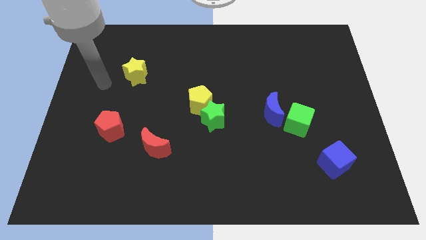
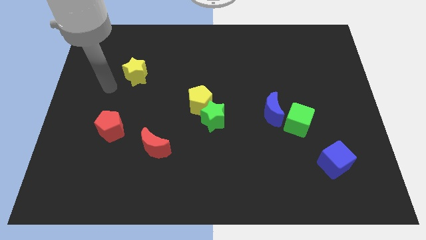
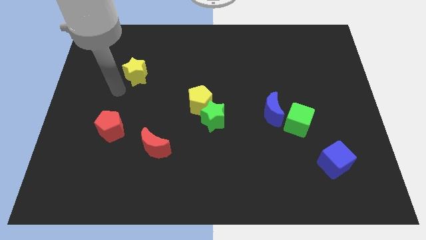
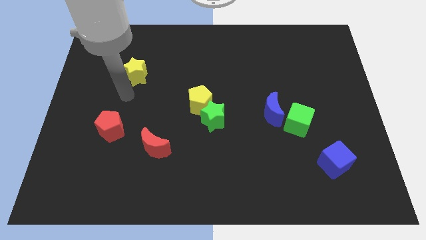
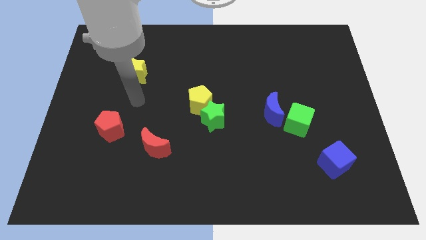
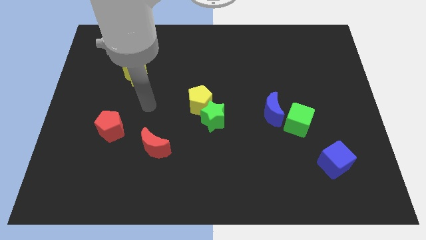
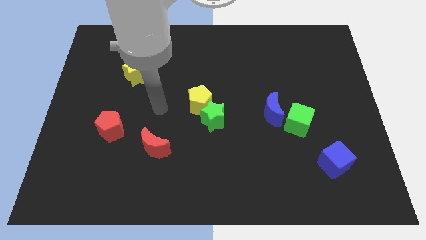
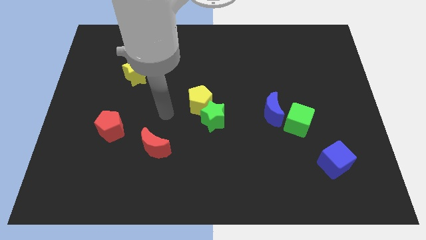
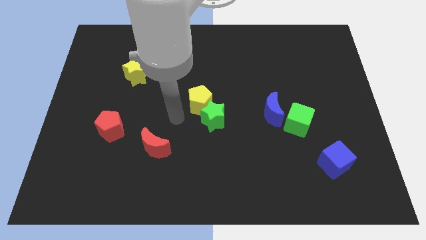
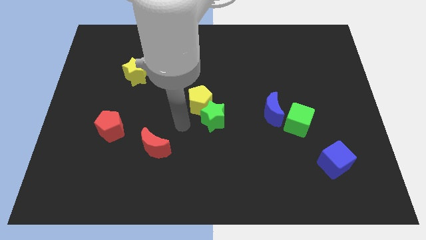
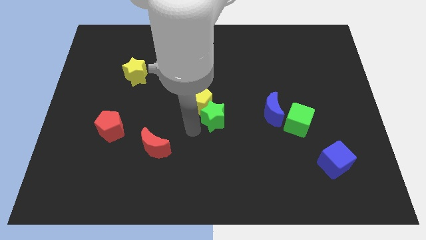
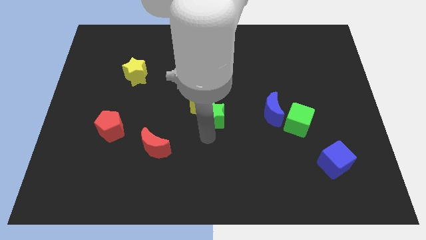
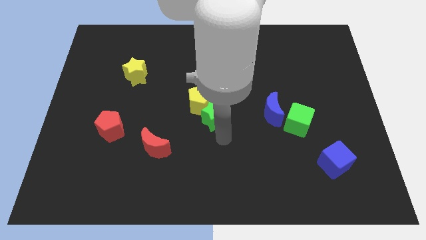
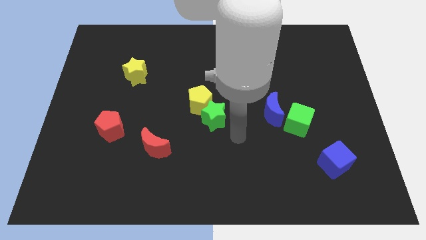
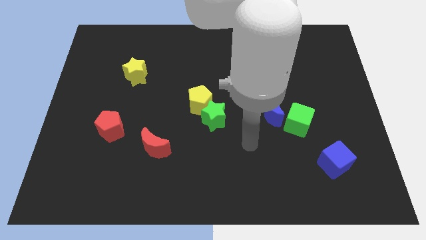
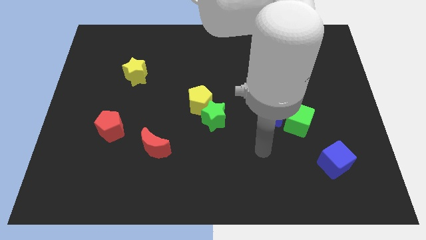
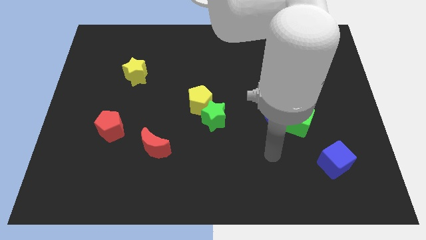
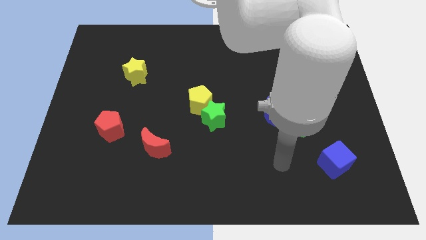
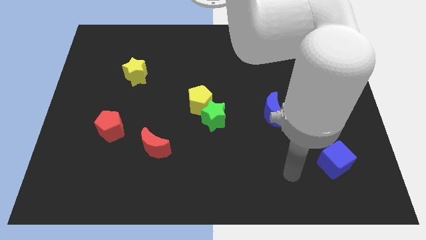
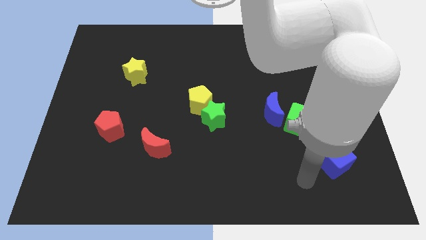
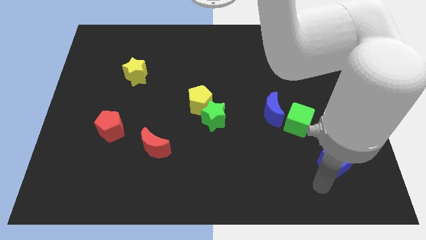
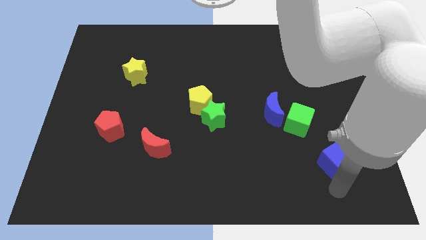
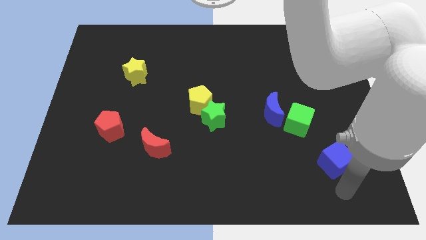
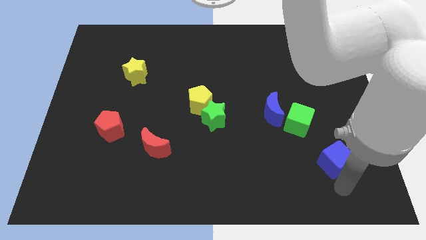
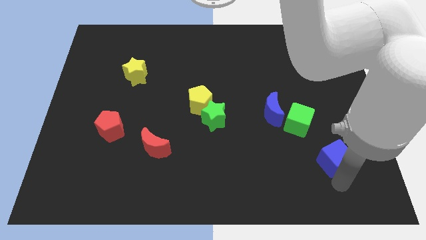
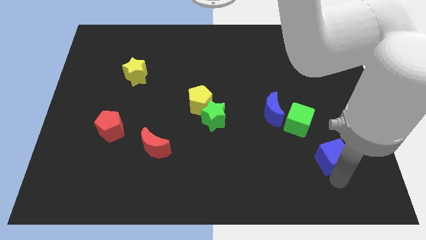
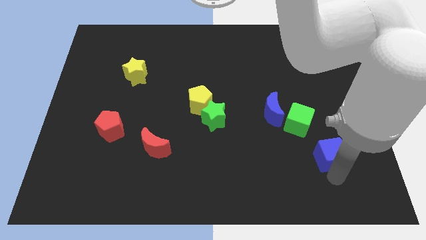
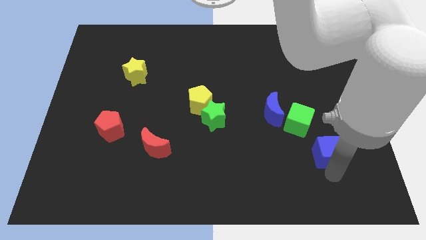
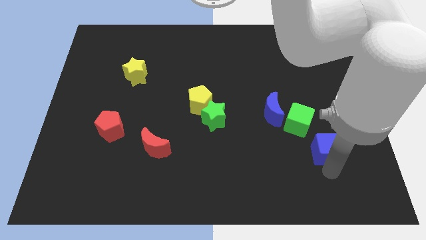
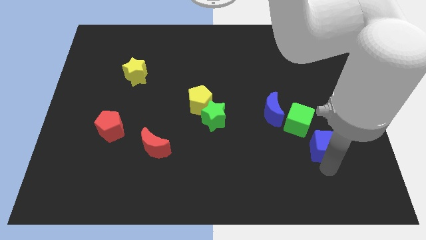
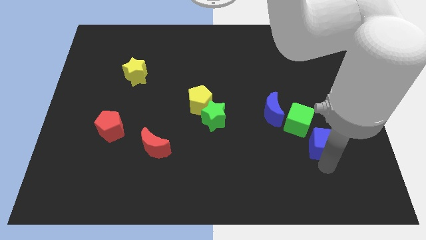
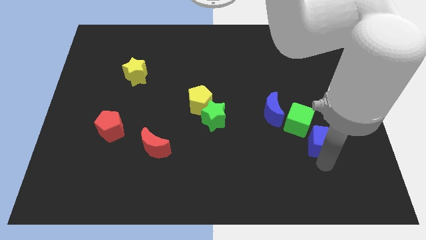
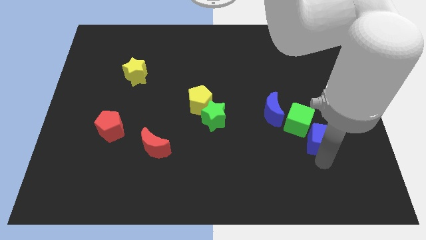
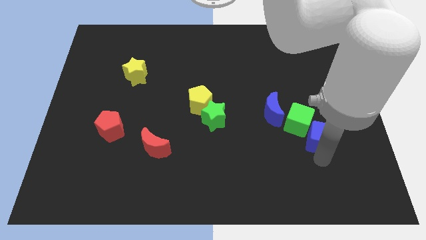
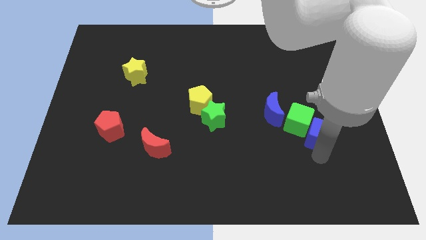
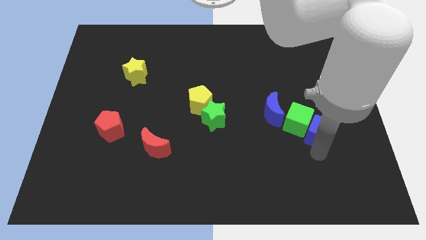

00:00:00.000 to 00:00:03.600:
move the blue cube somewhat upwards

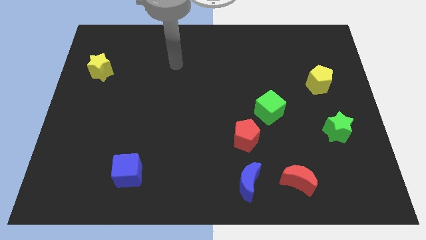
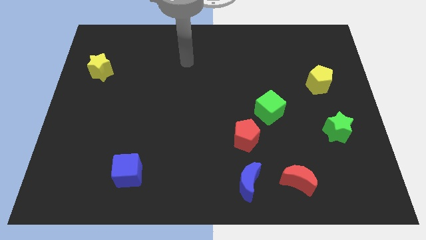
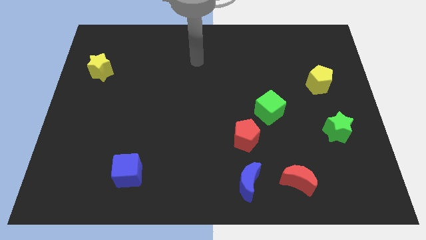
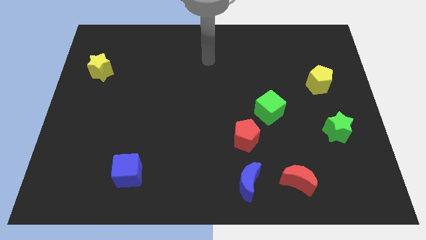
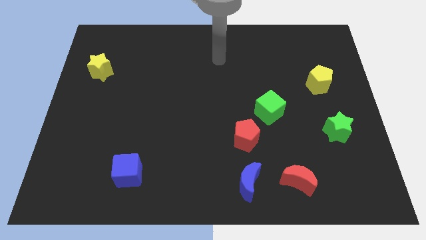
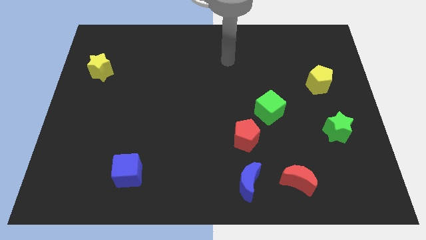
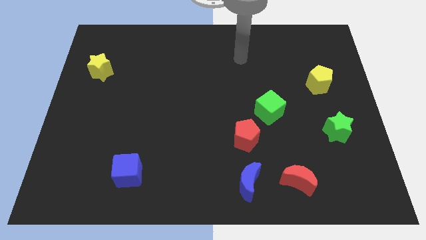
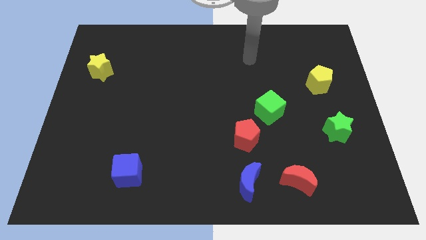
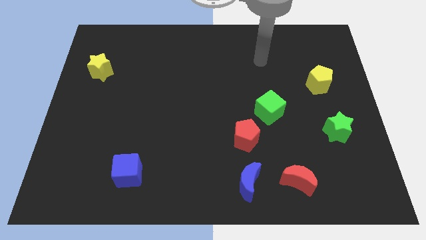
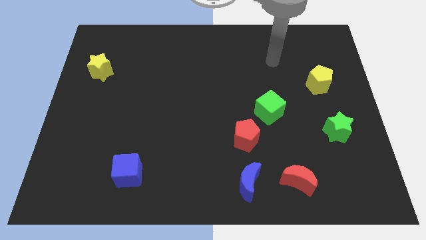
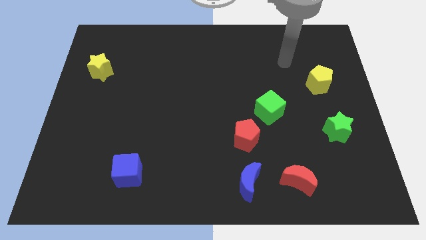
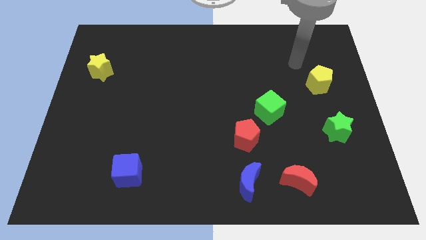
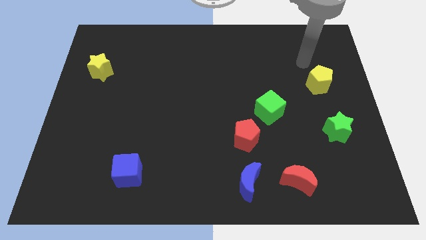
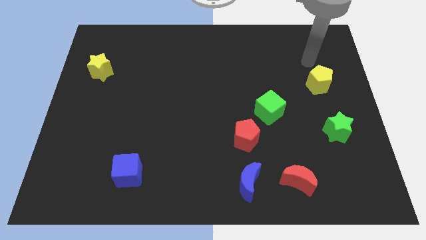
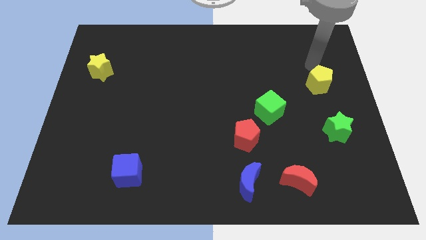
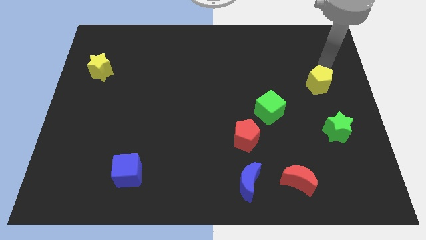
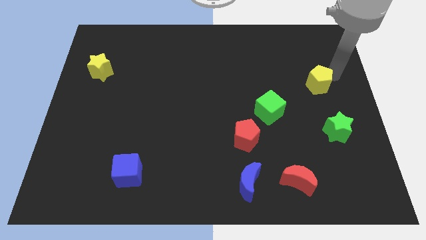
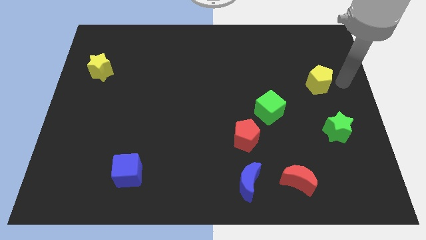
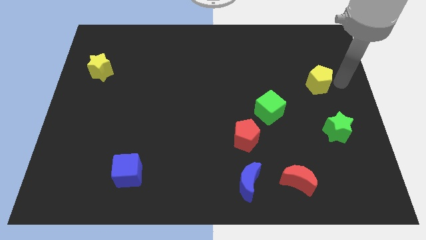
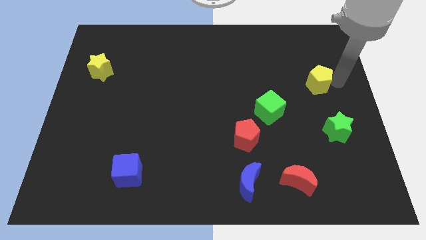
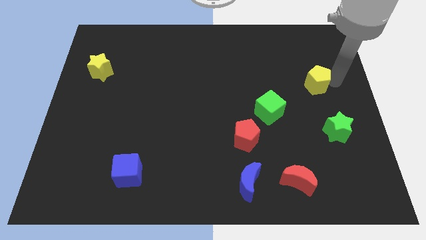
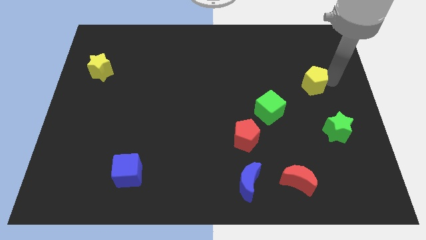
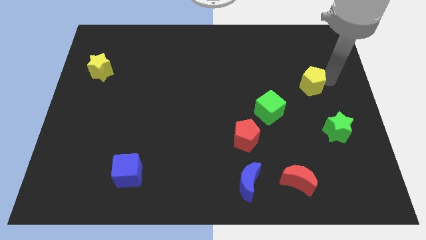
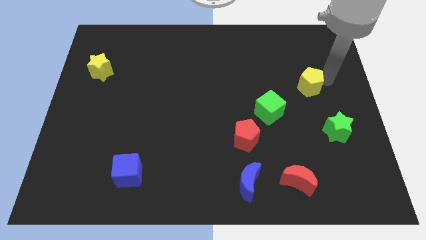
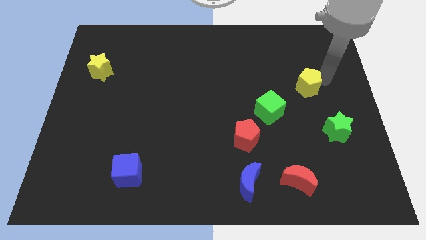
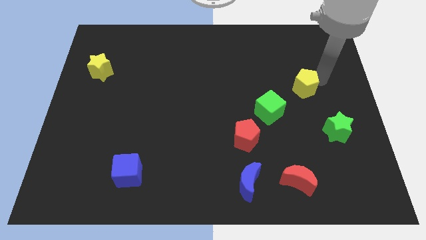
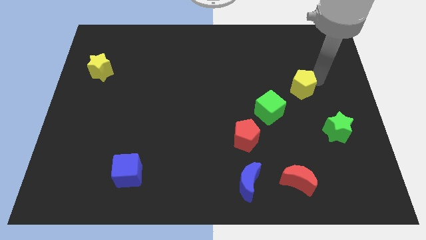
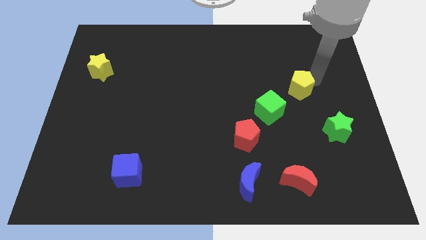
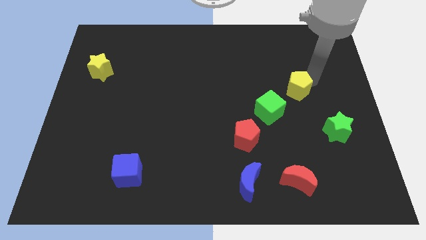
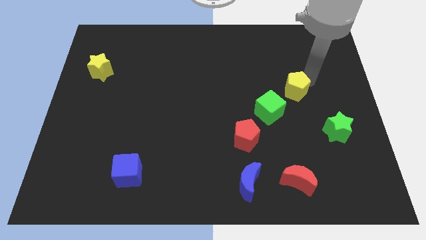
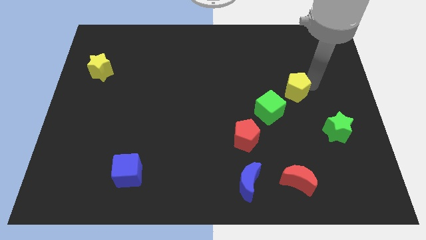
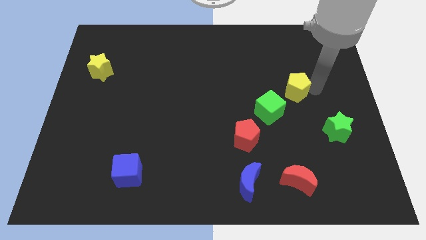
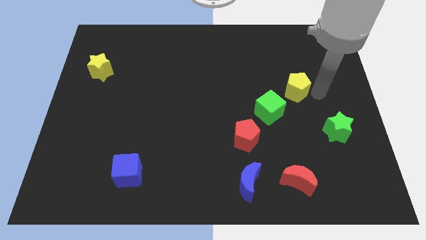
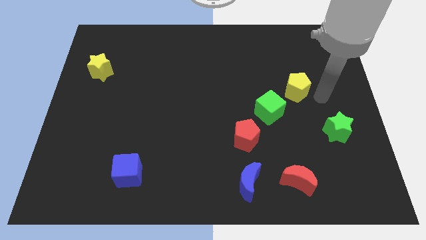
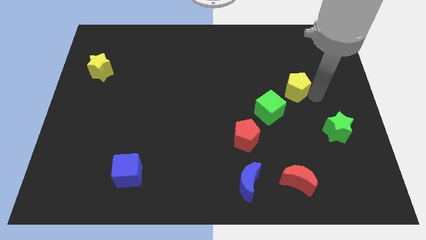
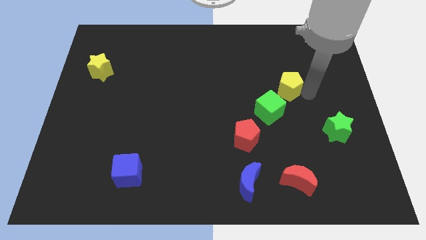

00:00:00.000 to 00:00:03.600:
push the yellow pentagon a little bit to the left

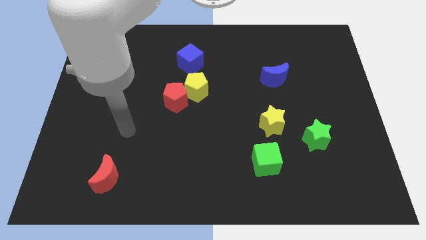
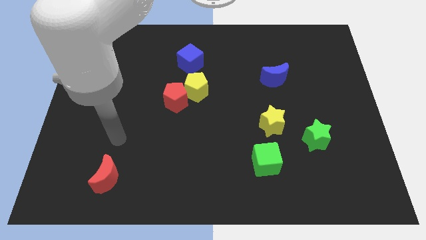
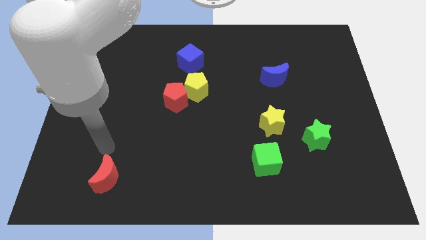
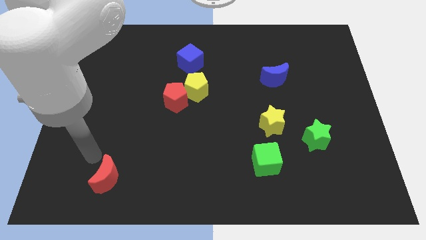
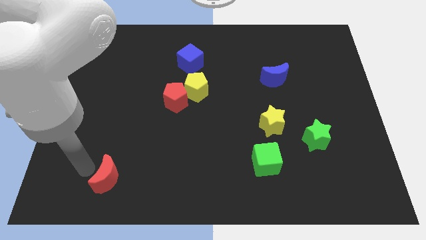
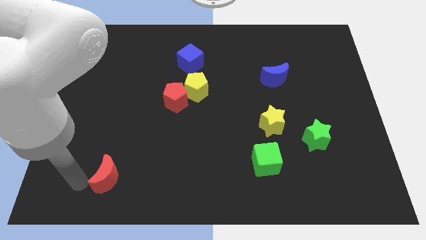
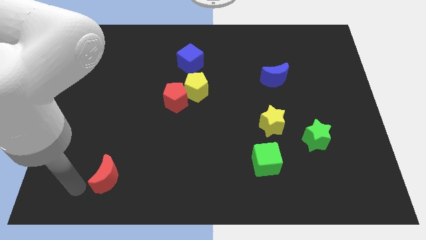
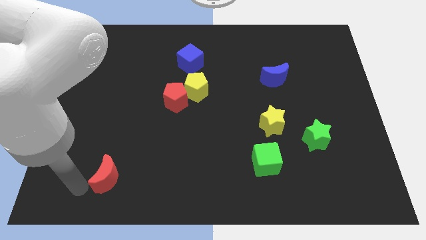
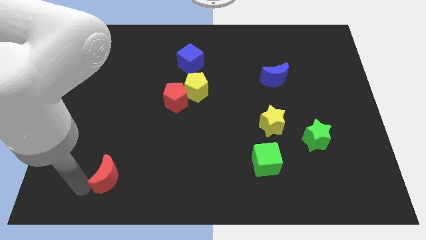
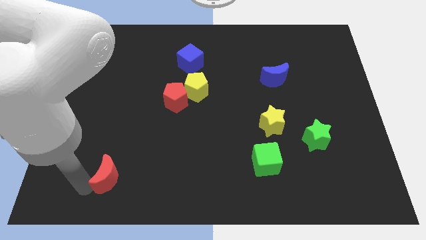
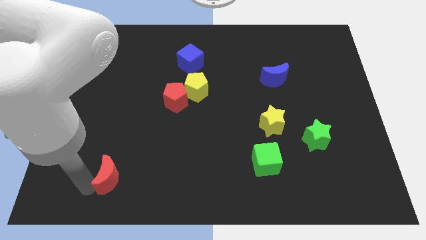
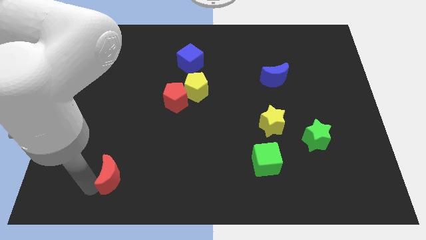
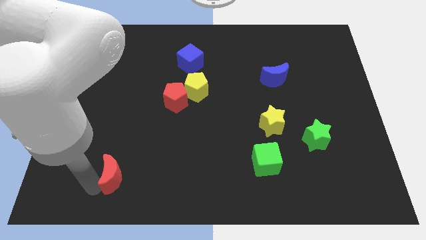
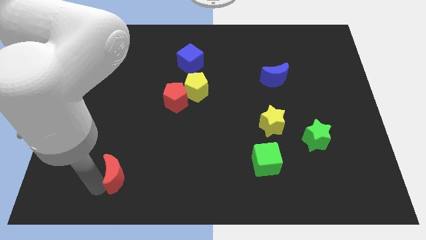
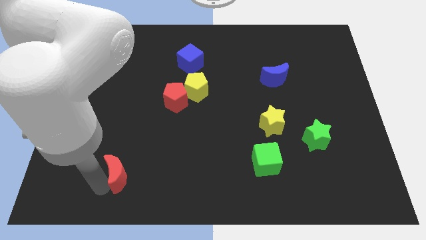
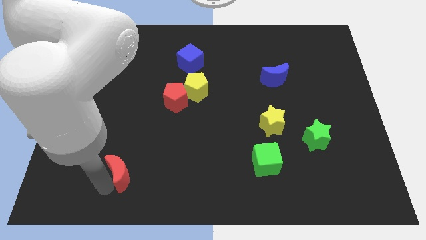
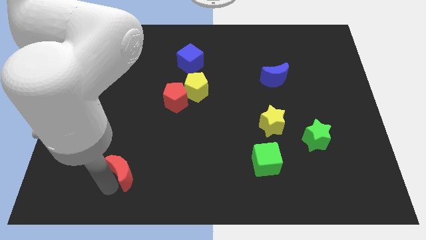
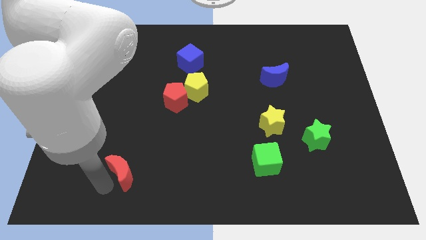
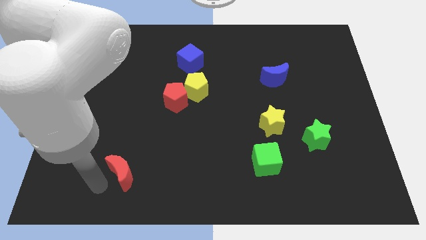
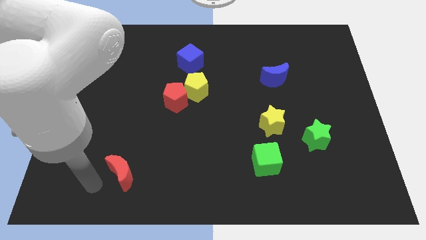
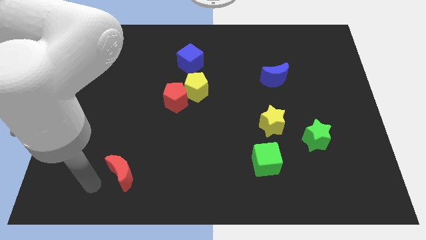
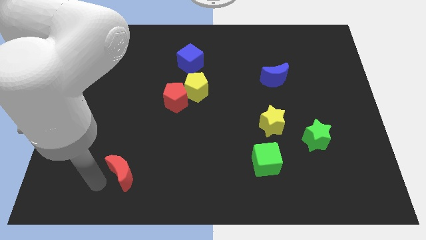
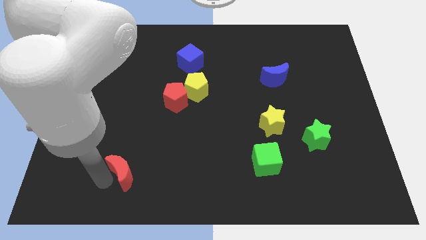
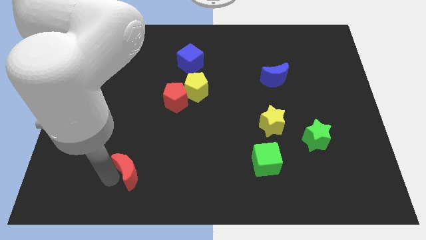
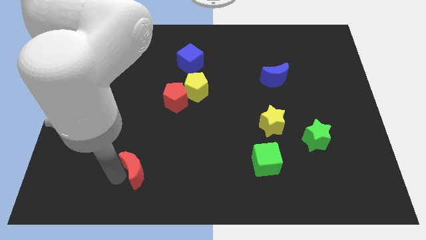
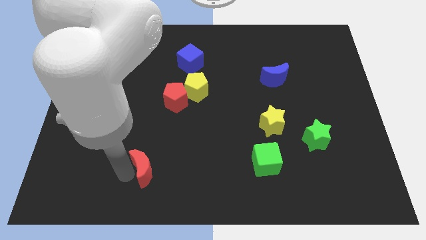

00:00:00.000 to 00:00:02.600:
slightly move the red moon right
